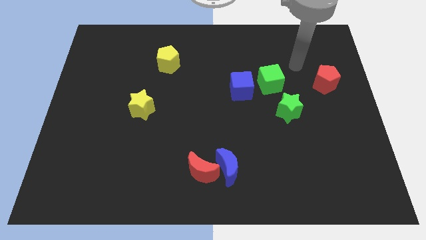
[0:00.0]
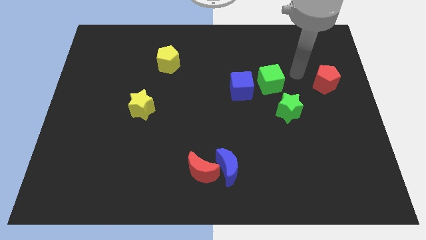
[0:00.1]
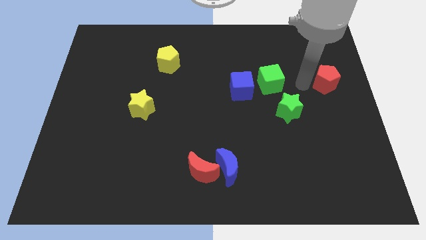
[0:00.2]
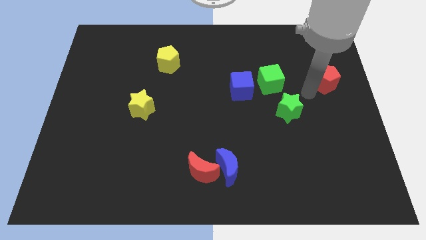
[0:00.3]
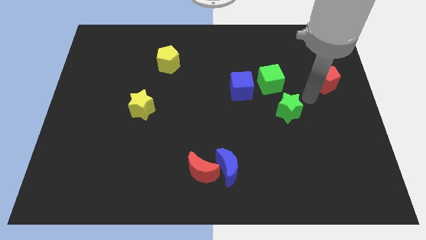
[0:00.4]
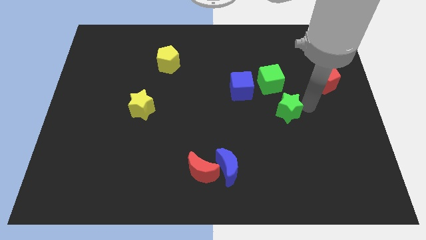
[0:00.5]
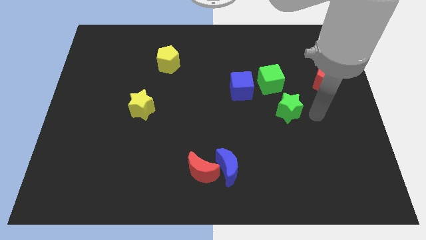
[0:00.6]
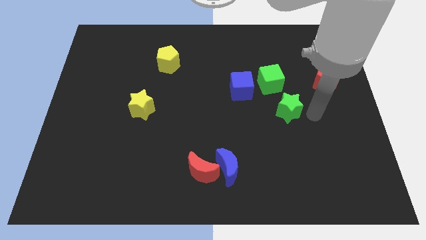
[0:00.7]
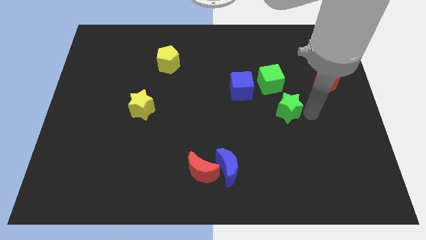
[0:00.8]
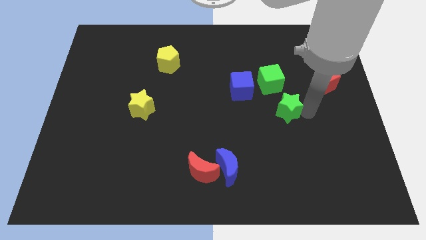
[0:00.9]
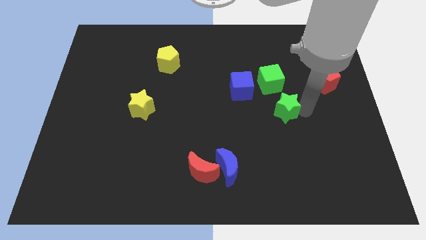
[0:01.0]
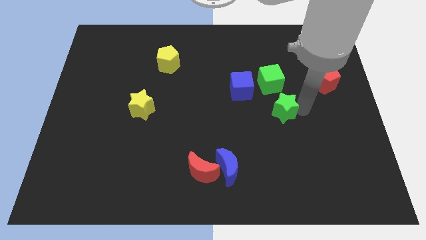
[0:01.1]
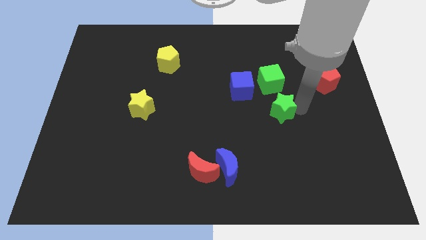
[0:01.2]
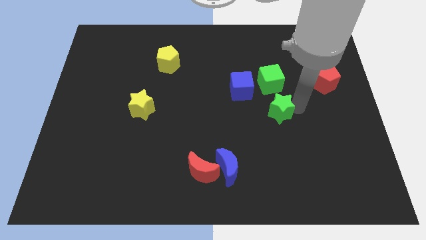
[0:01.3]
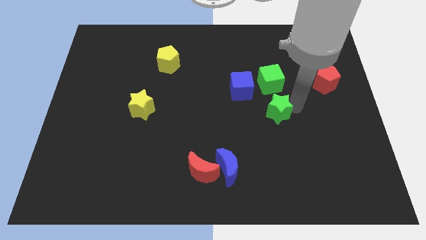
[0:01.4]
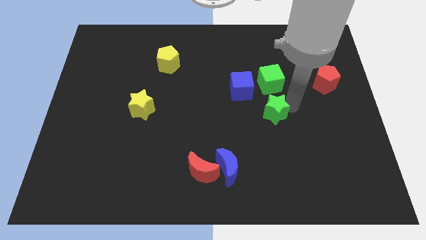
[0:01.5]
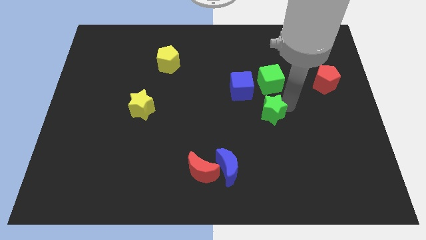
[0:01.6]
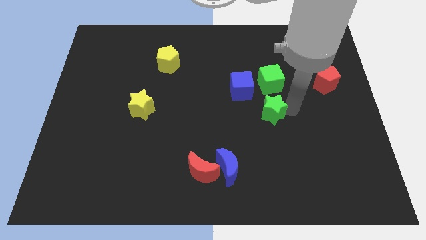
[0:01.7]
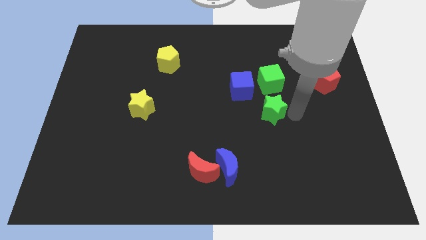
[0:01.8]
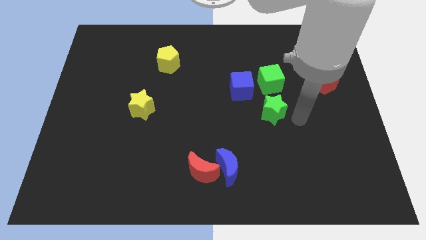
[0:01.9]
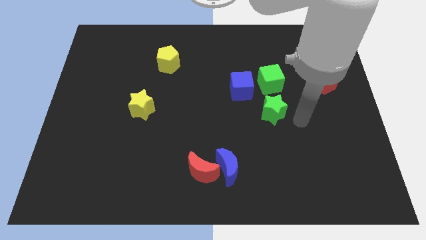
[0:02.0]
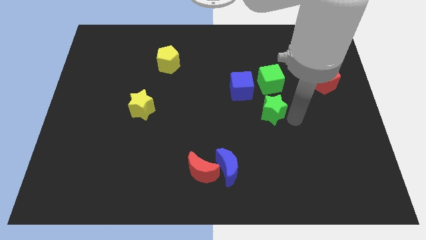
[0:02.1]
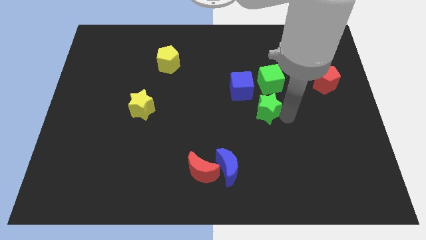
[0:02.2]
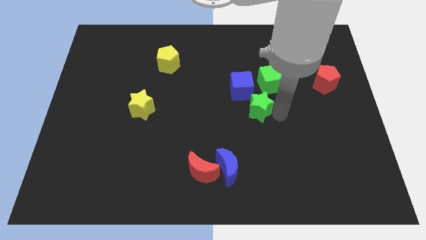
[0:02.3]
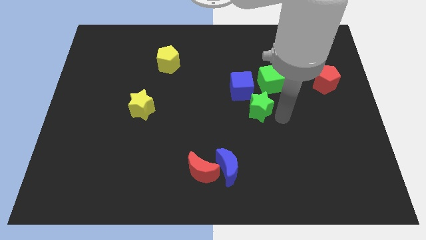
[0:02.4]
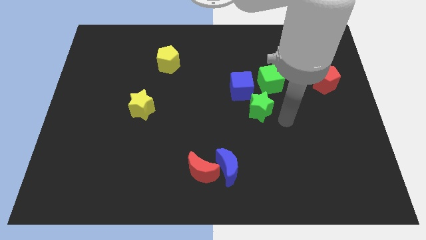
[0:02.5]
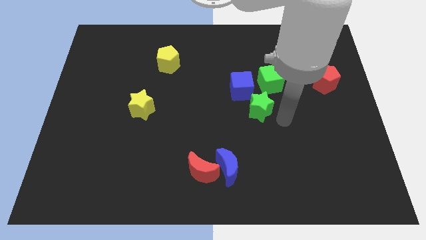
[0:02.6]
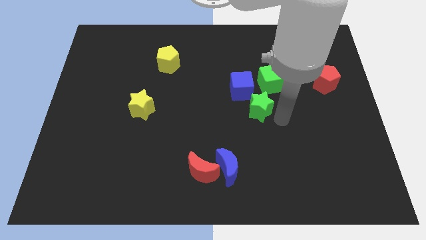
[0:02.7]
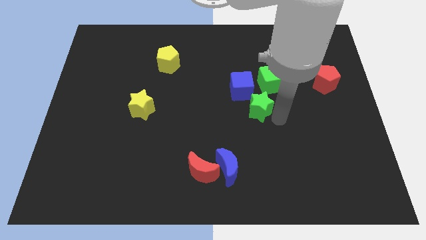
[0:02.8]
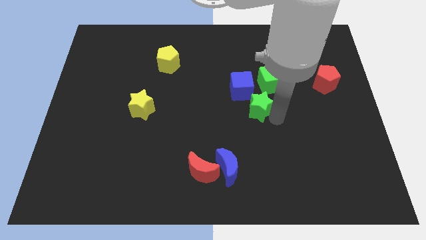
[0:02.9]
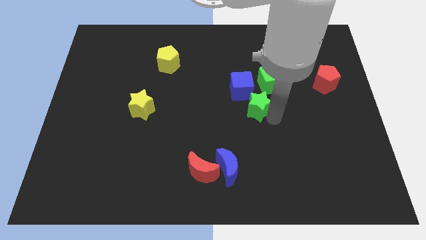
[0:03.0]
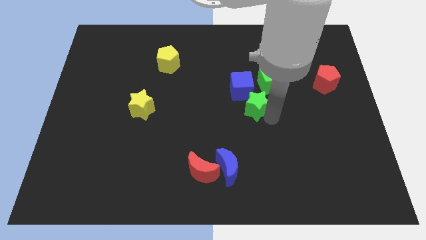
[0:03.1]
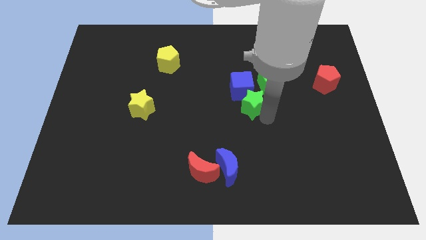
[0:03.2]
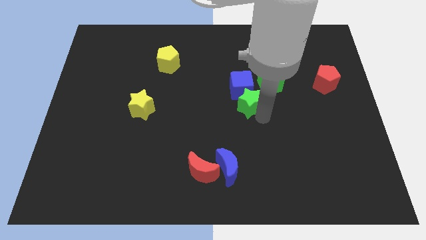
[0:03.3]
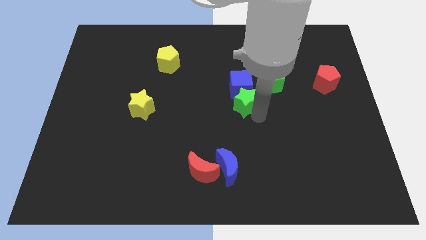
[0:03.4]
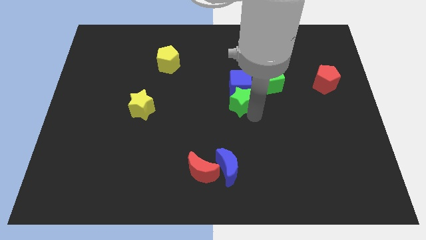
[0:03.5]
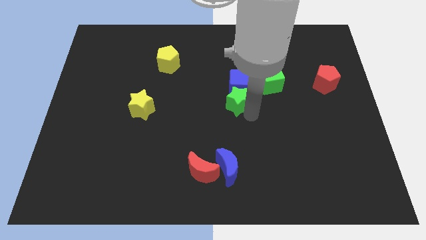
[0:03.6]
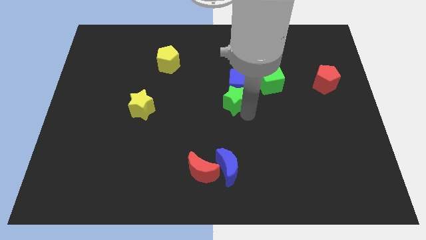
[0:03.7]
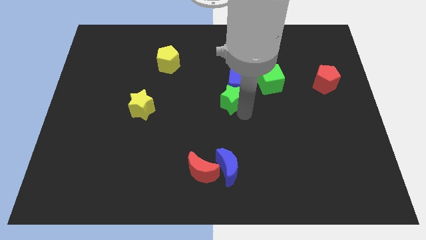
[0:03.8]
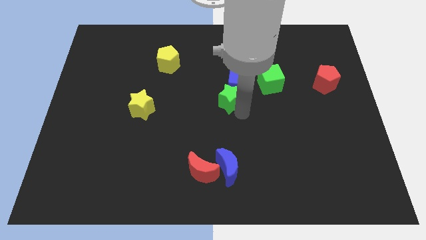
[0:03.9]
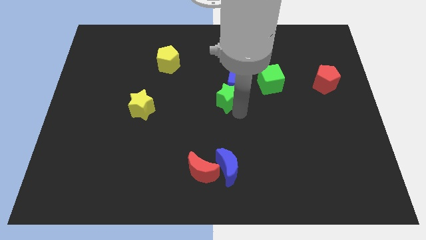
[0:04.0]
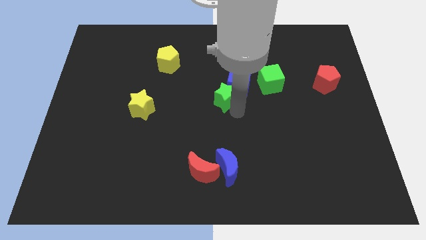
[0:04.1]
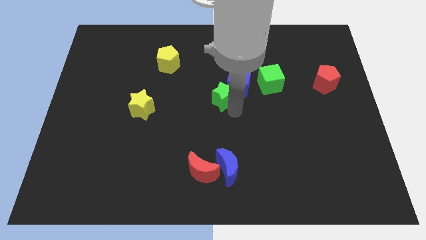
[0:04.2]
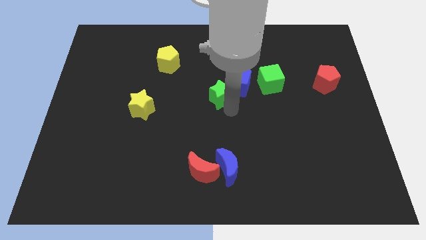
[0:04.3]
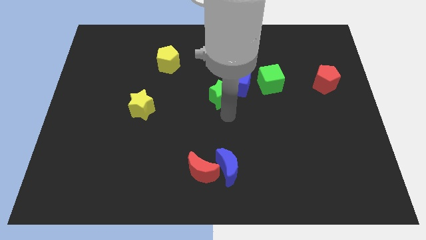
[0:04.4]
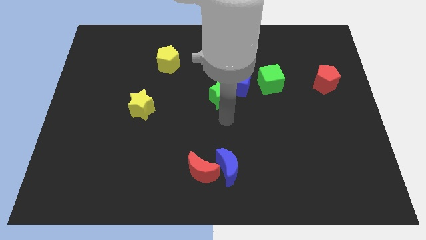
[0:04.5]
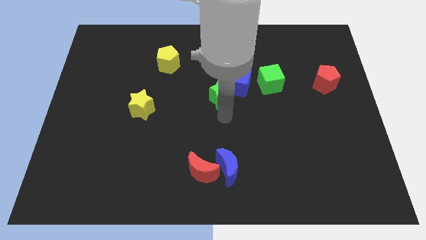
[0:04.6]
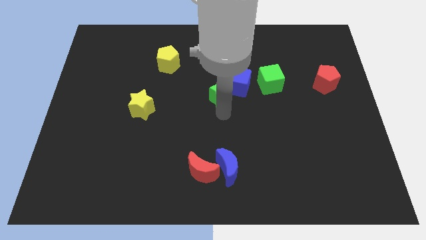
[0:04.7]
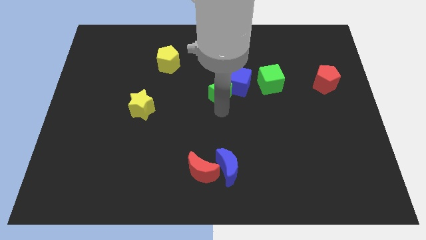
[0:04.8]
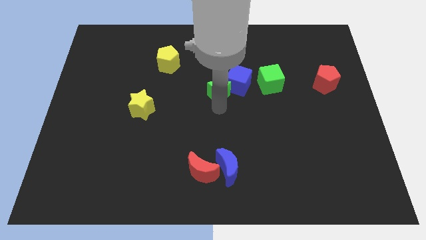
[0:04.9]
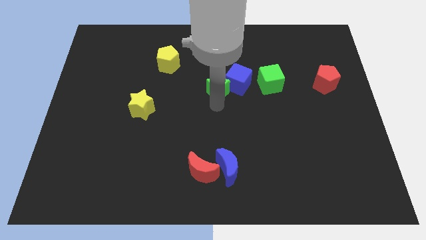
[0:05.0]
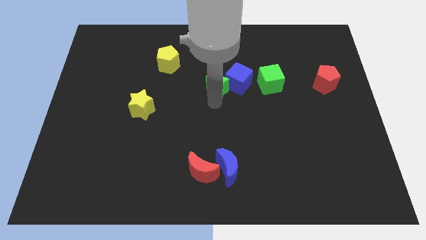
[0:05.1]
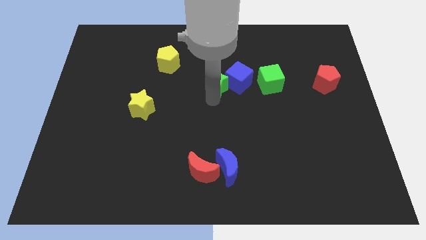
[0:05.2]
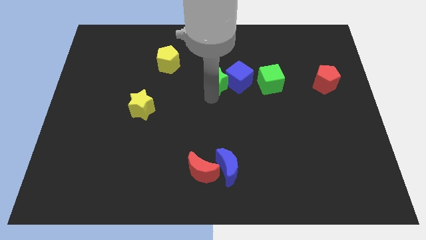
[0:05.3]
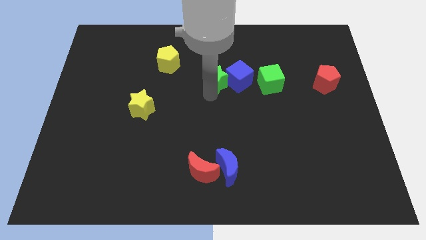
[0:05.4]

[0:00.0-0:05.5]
push the green star to the top left of the blue cube

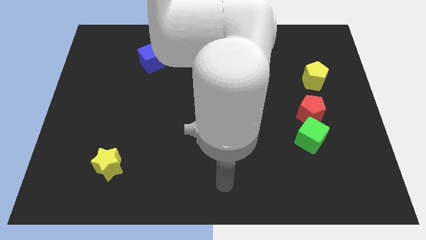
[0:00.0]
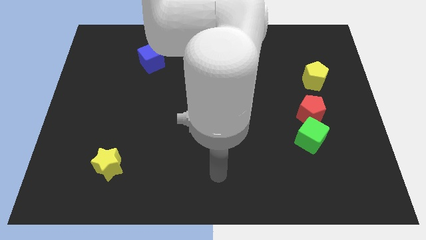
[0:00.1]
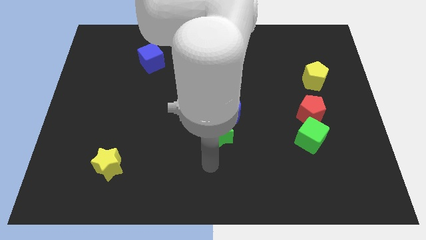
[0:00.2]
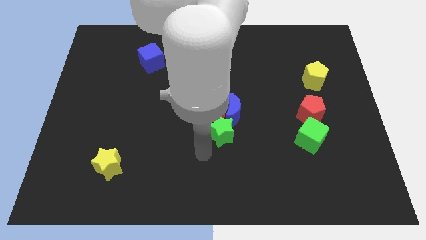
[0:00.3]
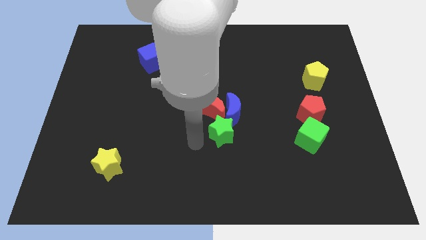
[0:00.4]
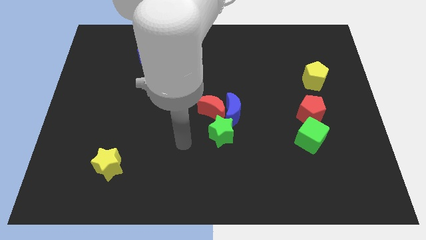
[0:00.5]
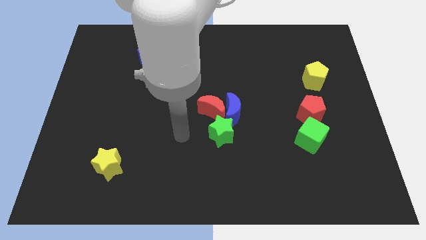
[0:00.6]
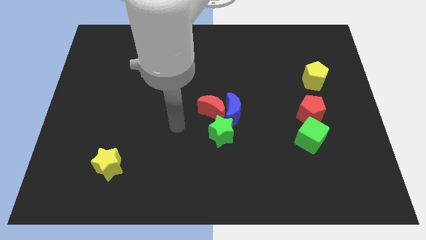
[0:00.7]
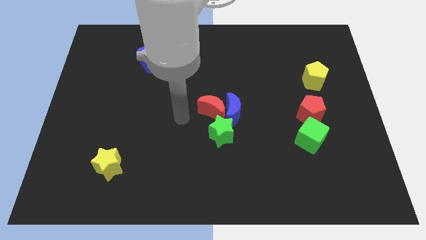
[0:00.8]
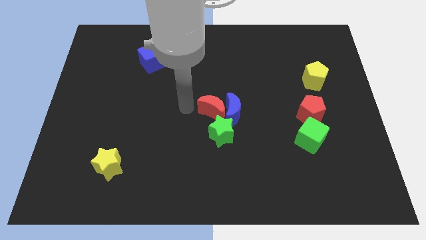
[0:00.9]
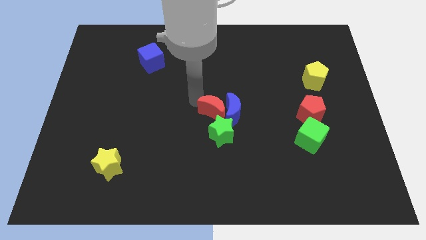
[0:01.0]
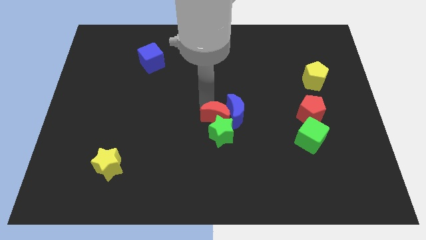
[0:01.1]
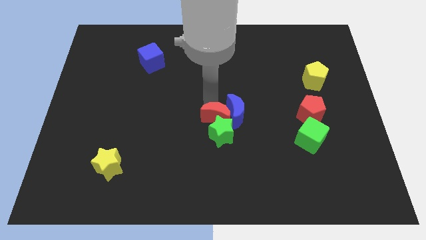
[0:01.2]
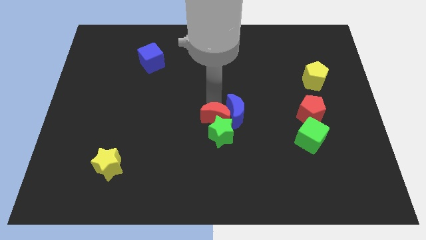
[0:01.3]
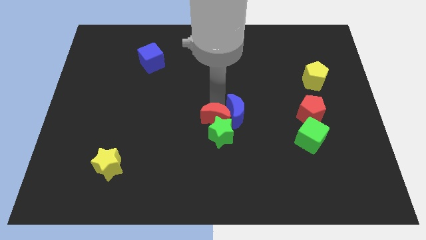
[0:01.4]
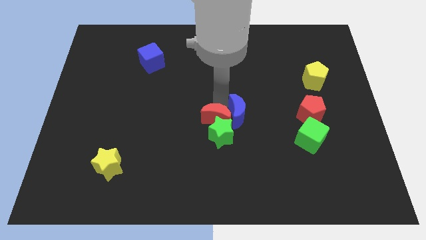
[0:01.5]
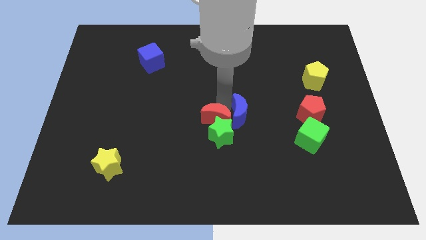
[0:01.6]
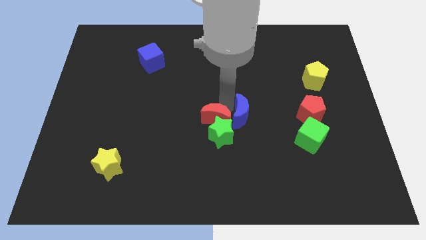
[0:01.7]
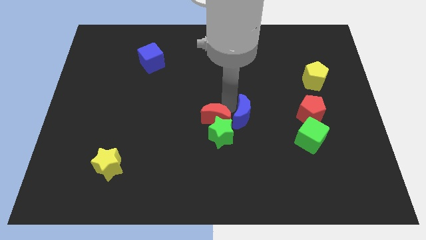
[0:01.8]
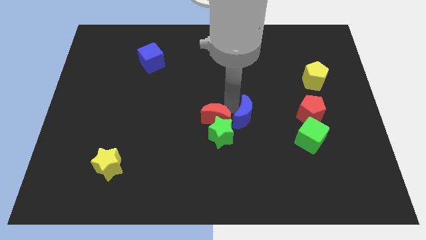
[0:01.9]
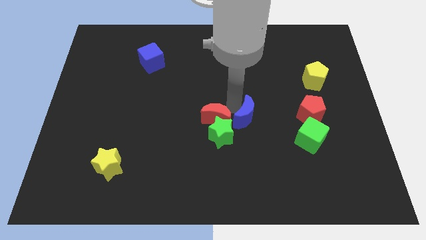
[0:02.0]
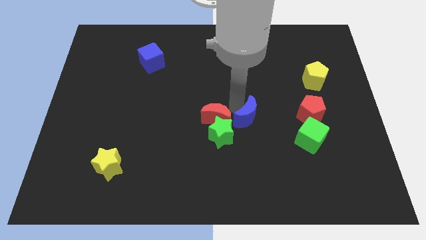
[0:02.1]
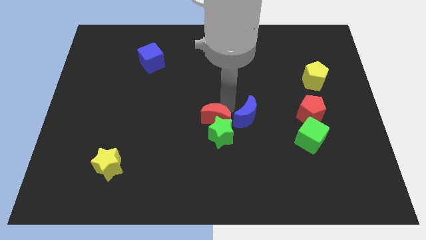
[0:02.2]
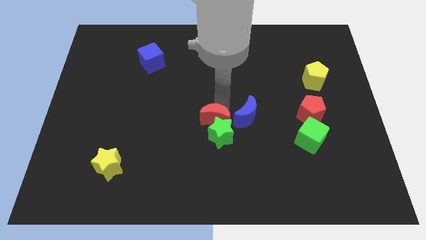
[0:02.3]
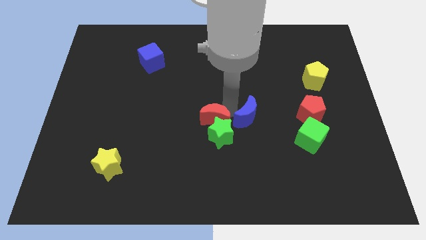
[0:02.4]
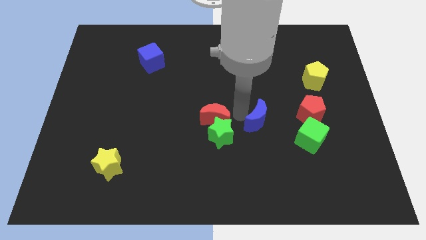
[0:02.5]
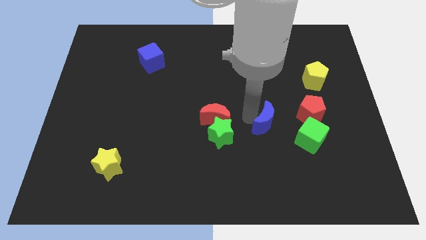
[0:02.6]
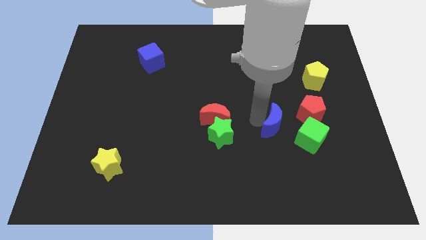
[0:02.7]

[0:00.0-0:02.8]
slide the blue moon to the bottom left of the red pentagon
